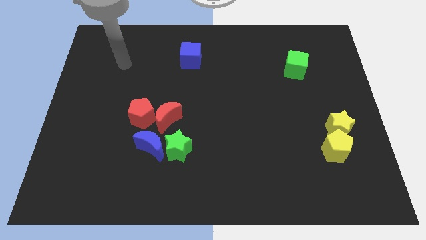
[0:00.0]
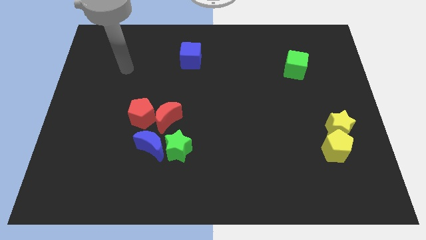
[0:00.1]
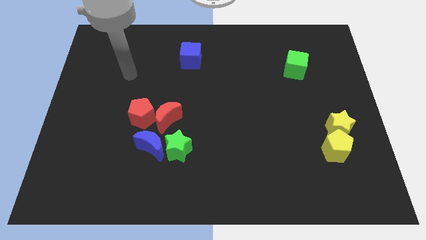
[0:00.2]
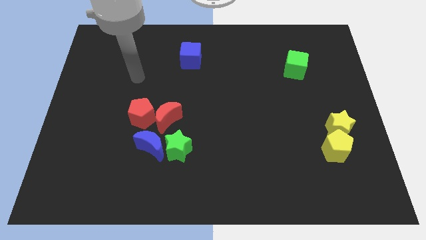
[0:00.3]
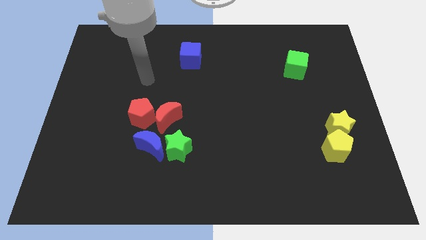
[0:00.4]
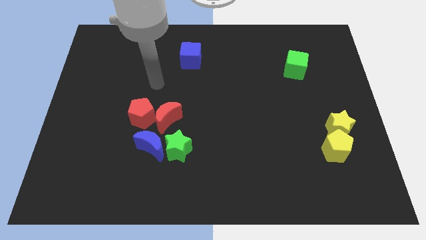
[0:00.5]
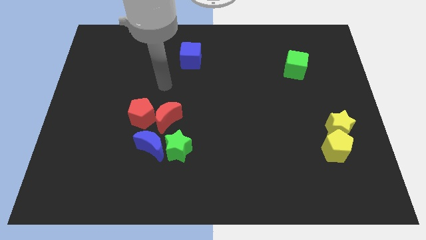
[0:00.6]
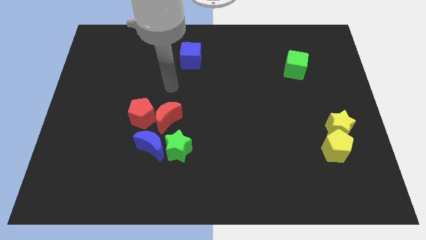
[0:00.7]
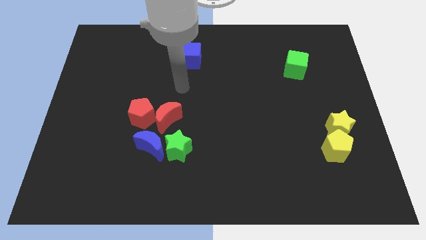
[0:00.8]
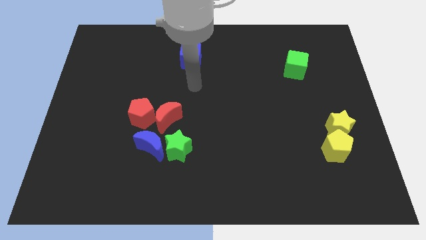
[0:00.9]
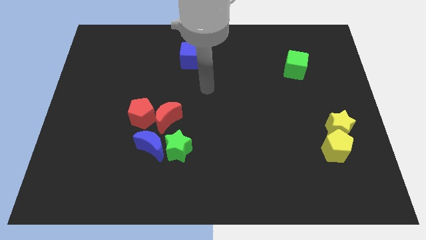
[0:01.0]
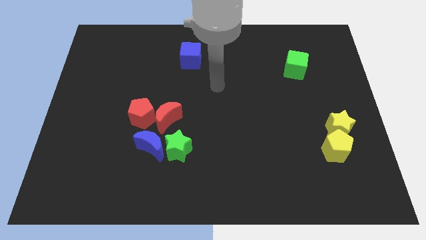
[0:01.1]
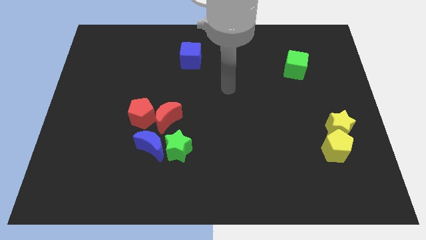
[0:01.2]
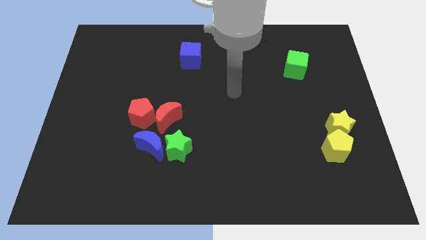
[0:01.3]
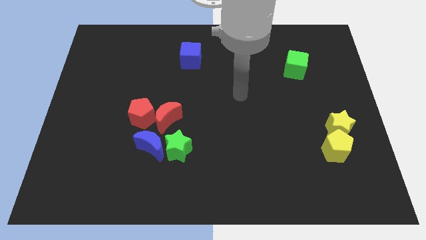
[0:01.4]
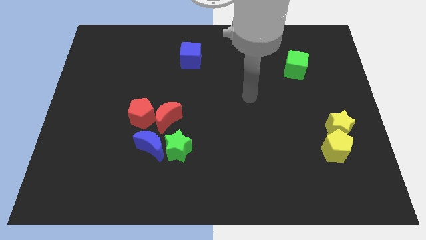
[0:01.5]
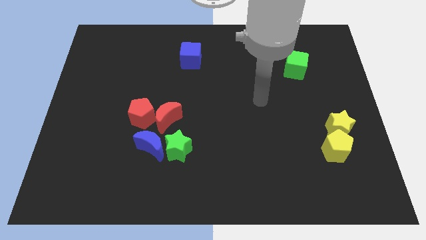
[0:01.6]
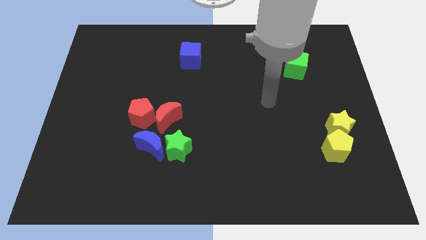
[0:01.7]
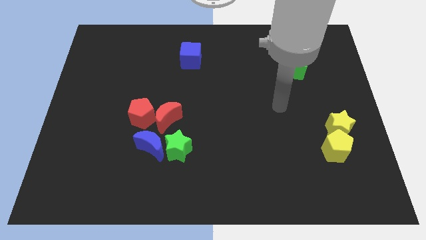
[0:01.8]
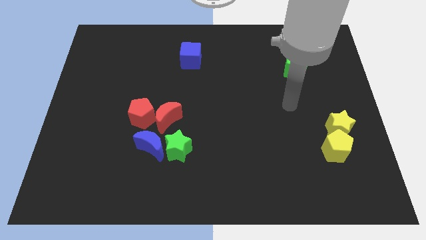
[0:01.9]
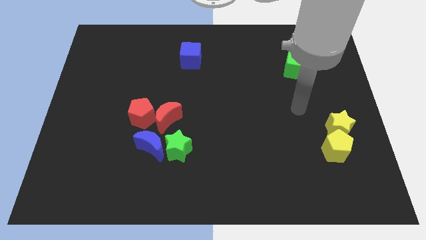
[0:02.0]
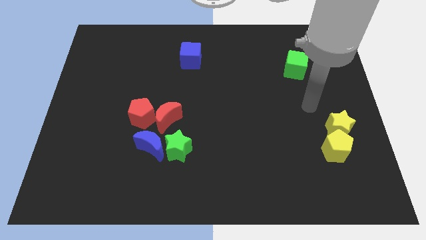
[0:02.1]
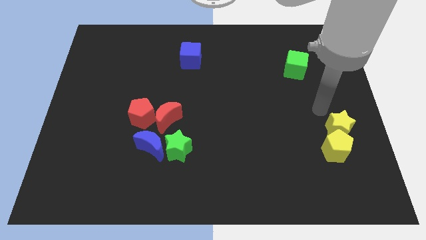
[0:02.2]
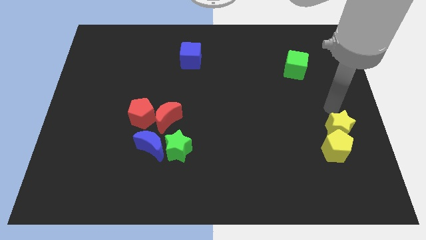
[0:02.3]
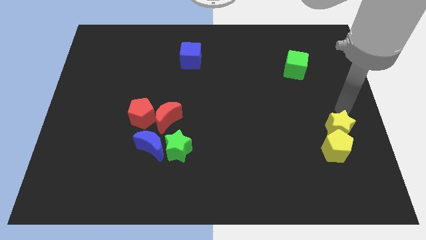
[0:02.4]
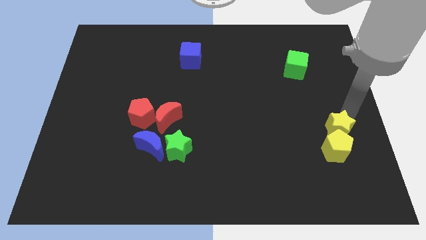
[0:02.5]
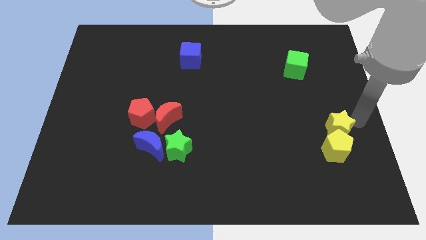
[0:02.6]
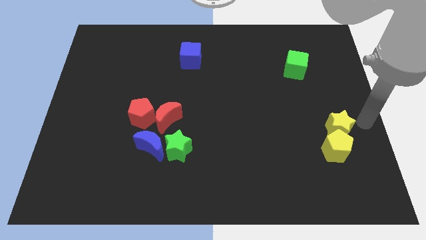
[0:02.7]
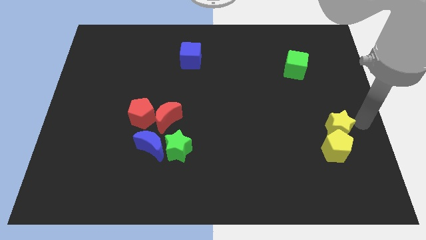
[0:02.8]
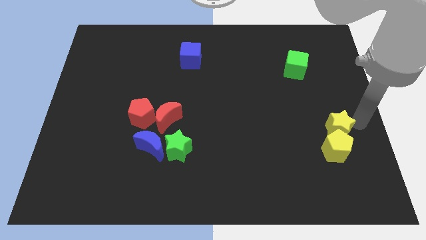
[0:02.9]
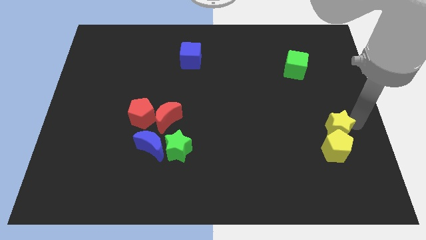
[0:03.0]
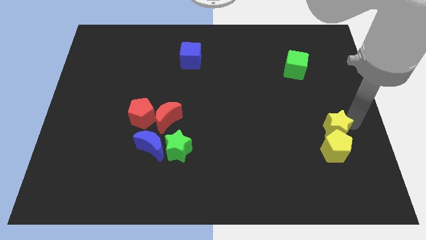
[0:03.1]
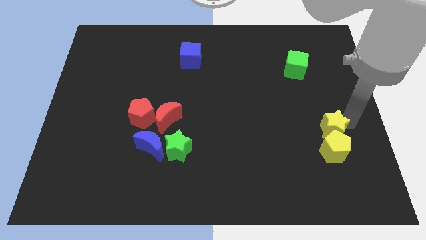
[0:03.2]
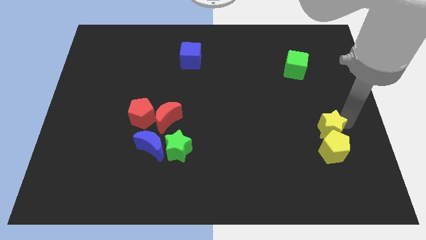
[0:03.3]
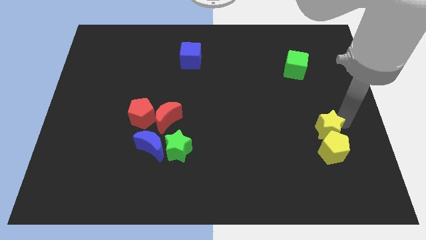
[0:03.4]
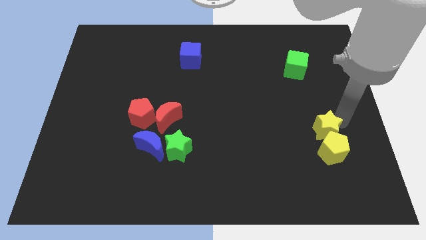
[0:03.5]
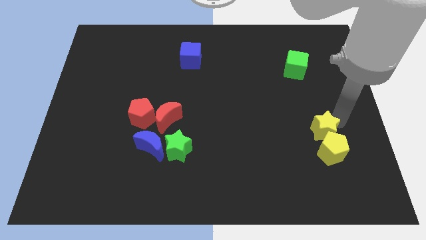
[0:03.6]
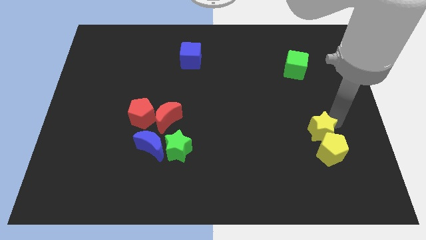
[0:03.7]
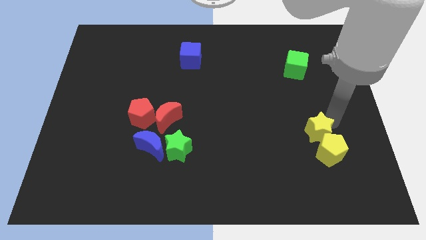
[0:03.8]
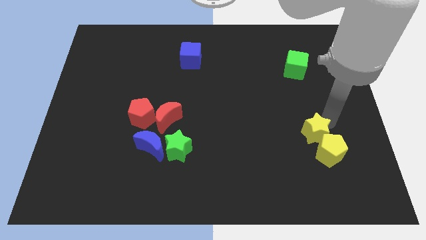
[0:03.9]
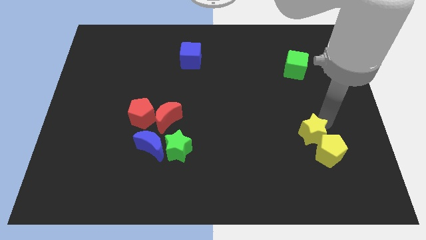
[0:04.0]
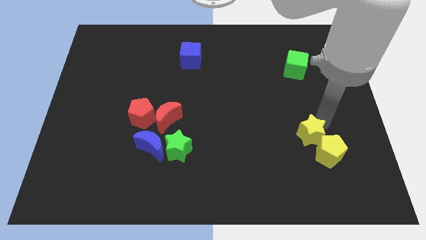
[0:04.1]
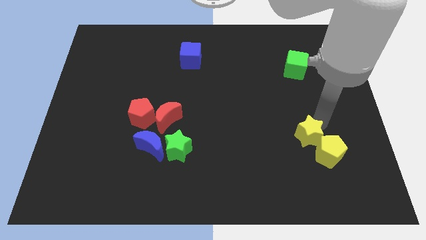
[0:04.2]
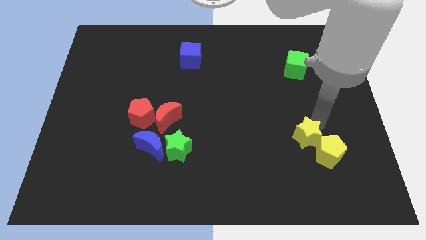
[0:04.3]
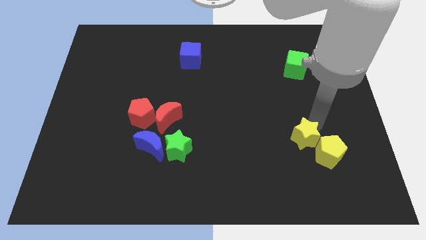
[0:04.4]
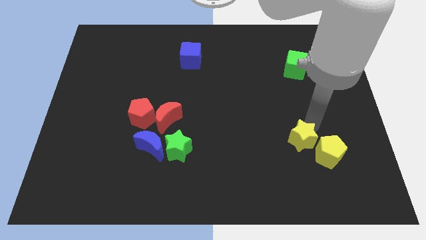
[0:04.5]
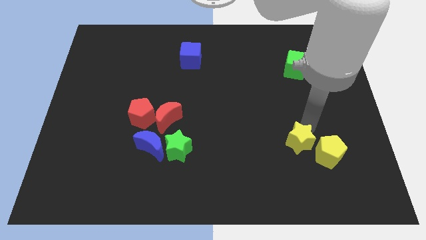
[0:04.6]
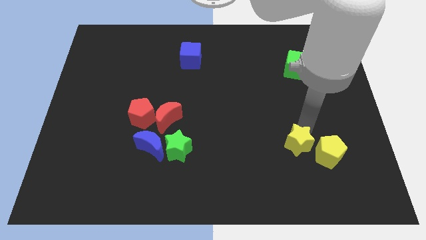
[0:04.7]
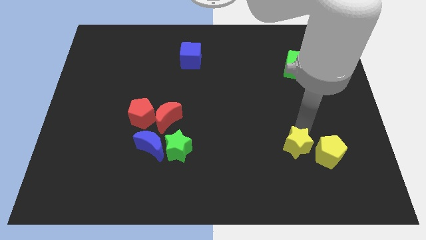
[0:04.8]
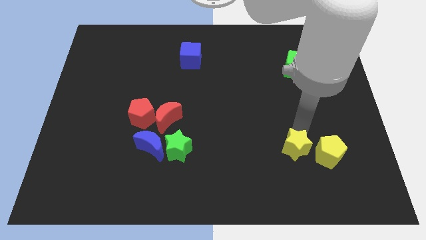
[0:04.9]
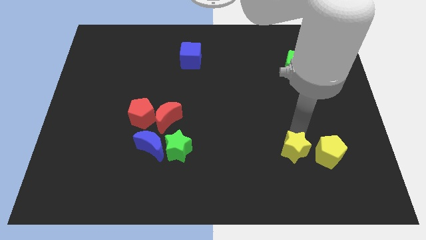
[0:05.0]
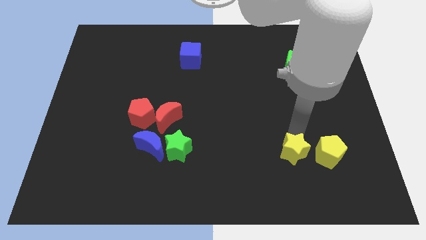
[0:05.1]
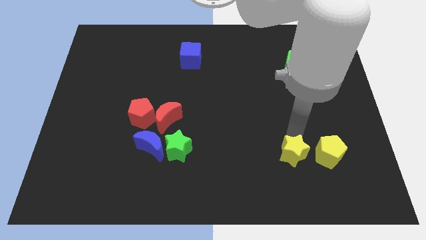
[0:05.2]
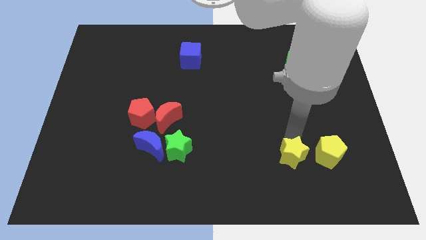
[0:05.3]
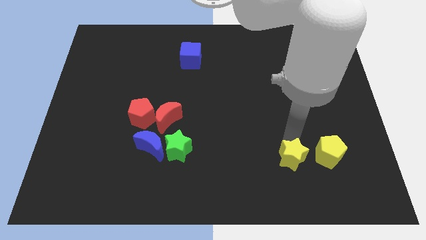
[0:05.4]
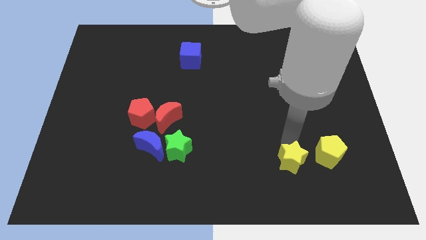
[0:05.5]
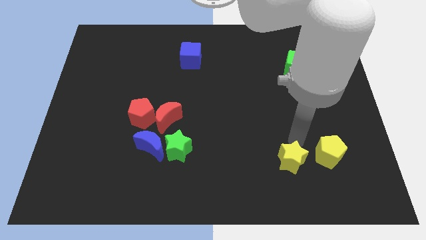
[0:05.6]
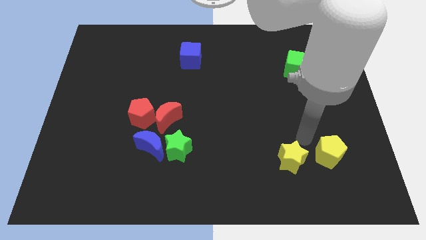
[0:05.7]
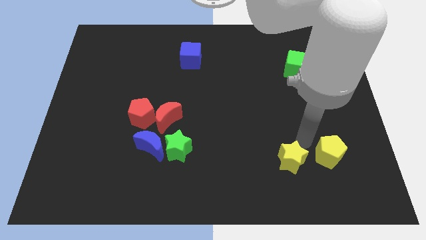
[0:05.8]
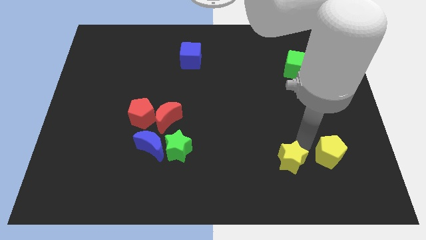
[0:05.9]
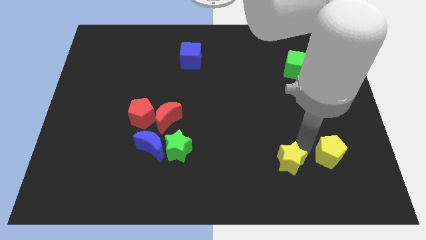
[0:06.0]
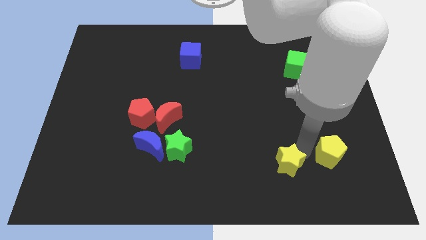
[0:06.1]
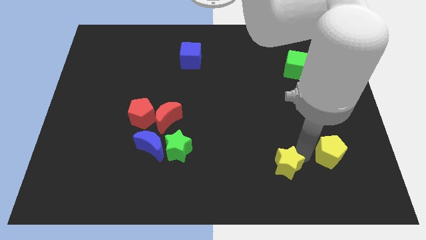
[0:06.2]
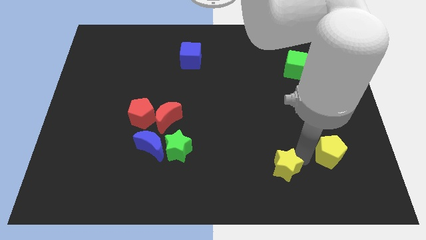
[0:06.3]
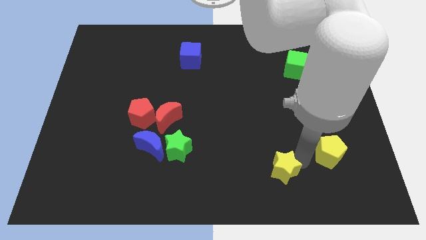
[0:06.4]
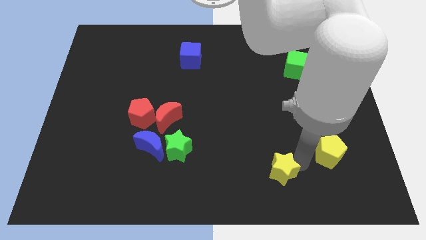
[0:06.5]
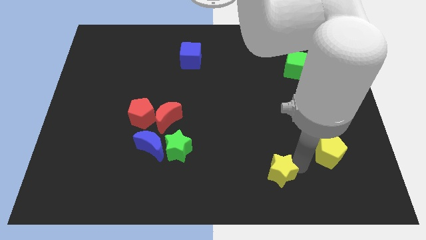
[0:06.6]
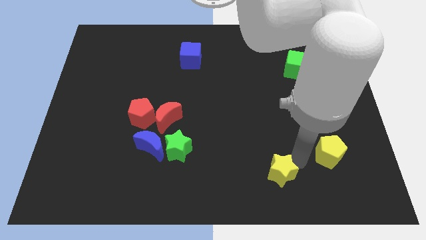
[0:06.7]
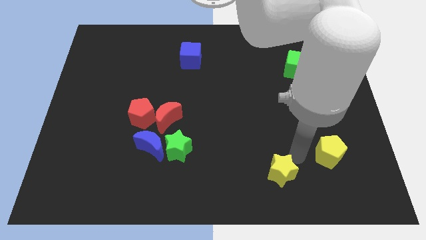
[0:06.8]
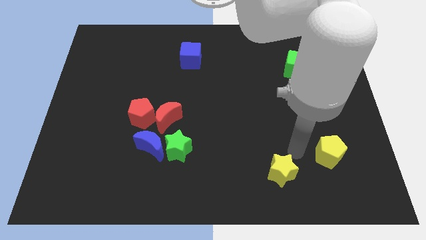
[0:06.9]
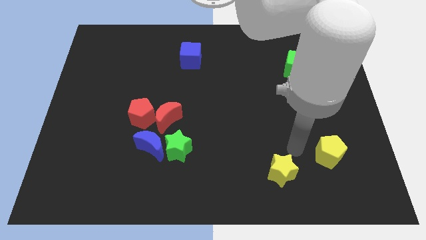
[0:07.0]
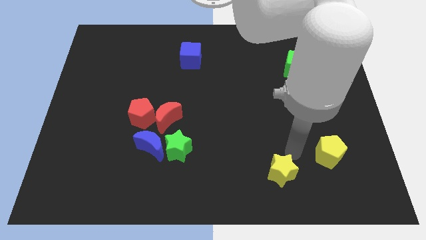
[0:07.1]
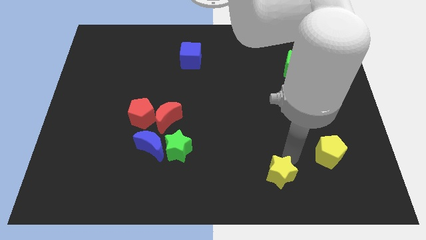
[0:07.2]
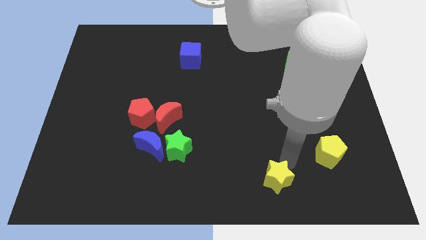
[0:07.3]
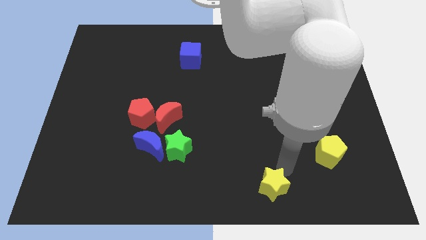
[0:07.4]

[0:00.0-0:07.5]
move the yellow star to the bottom side

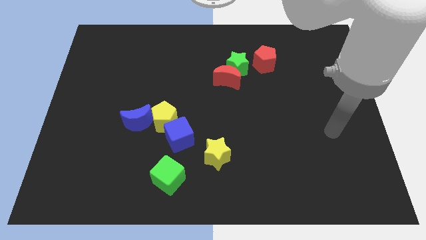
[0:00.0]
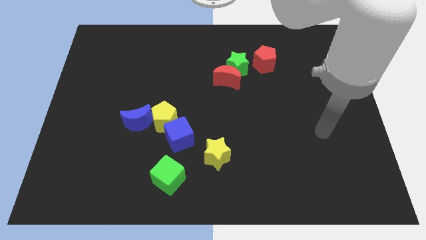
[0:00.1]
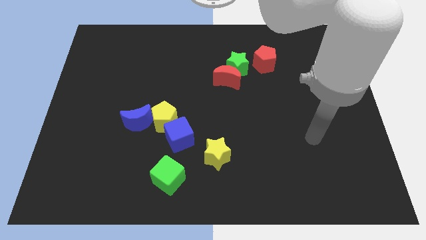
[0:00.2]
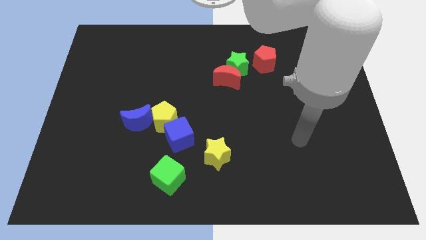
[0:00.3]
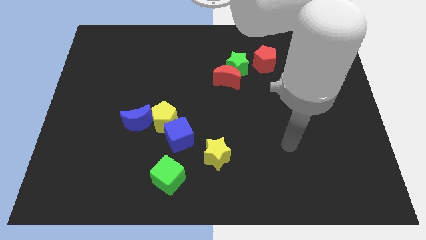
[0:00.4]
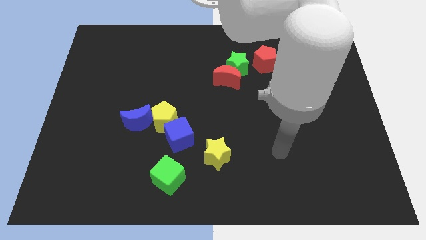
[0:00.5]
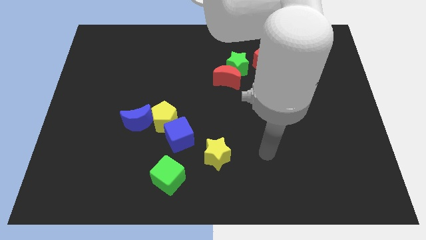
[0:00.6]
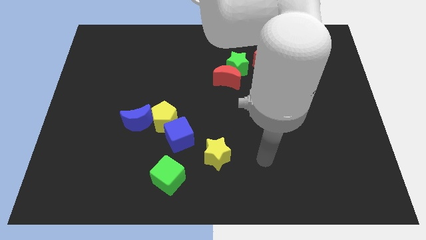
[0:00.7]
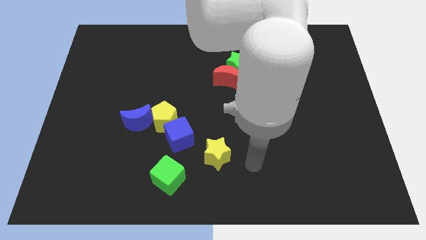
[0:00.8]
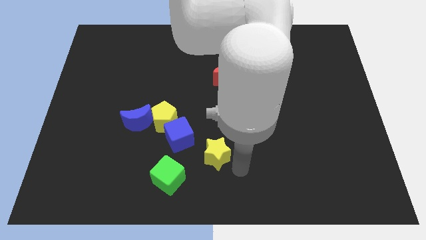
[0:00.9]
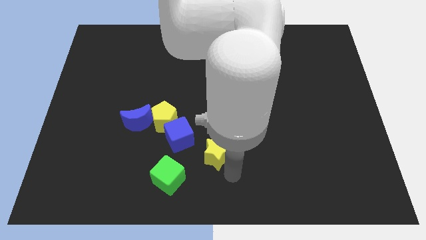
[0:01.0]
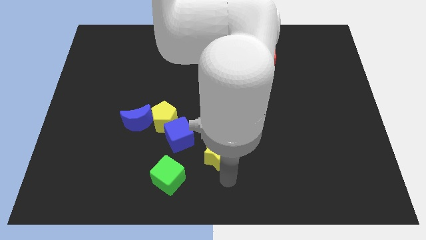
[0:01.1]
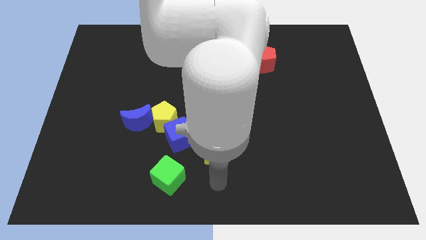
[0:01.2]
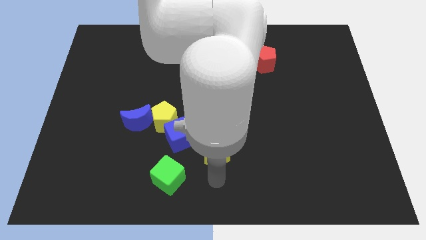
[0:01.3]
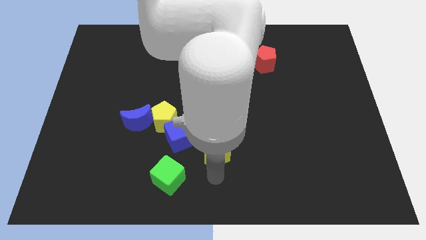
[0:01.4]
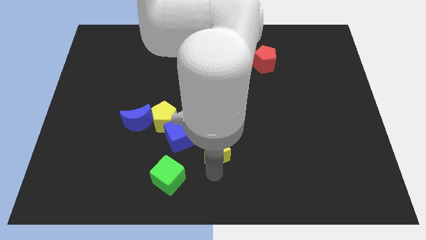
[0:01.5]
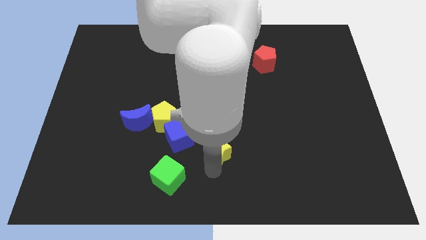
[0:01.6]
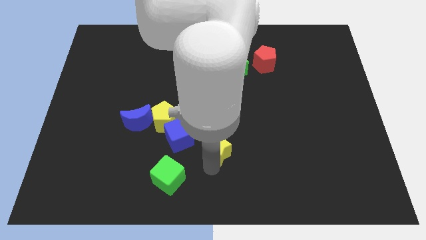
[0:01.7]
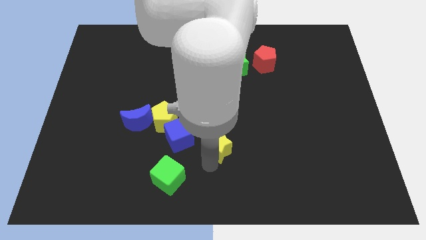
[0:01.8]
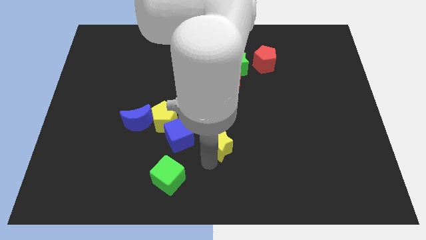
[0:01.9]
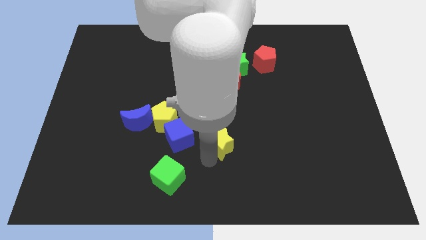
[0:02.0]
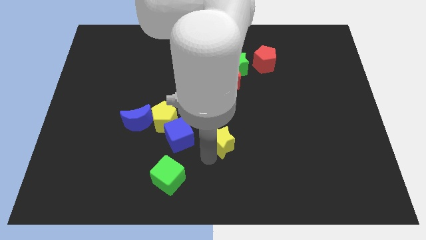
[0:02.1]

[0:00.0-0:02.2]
put the yellow star to the middle
